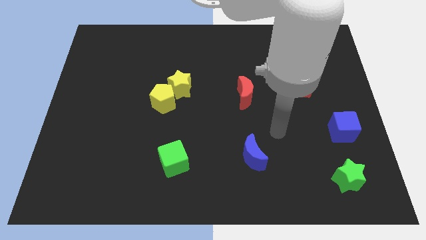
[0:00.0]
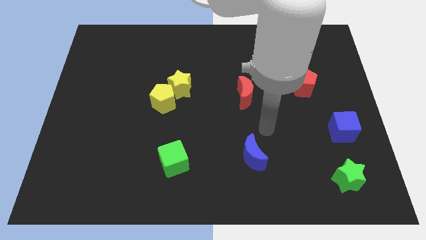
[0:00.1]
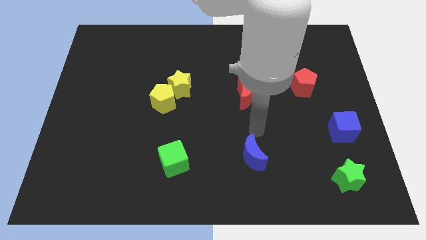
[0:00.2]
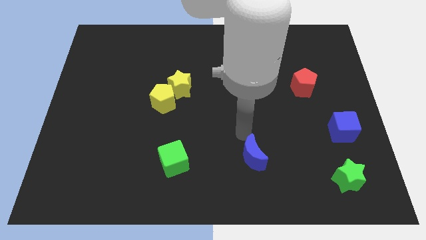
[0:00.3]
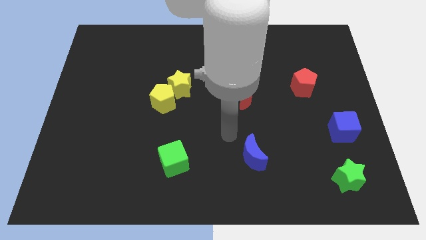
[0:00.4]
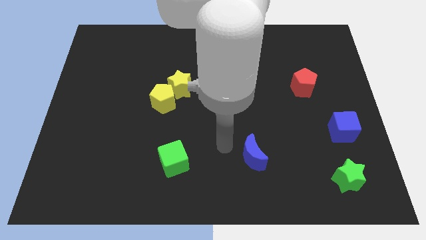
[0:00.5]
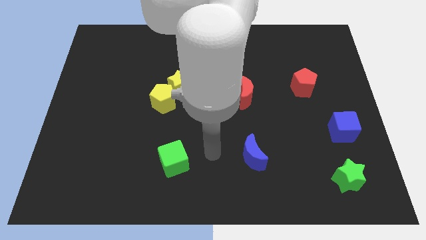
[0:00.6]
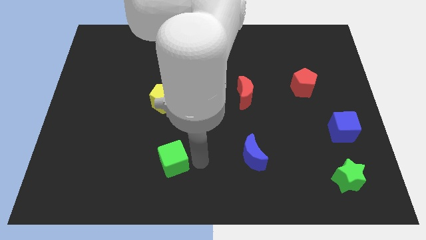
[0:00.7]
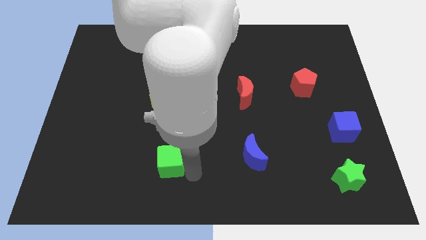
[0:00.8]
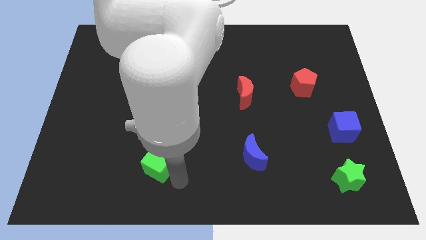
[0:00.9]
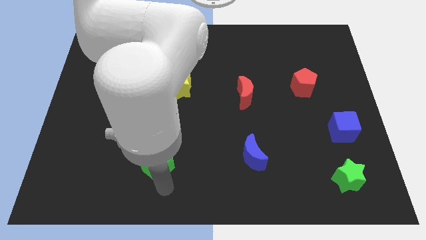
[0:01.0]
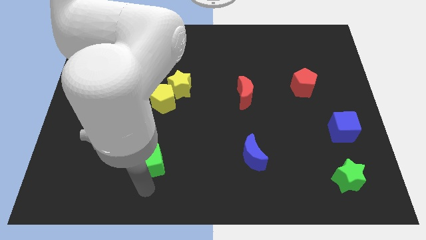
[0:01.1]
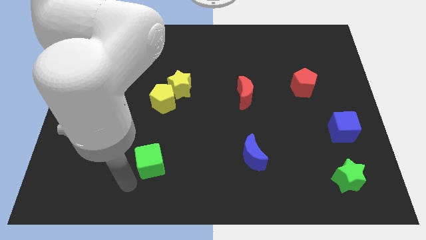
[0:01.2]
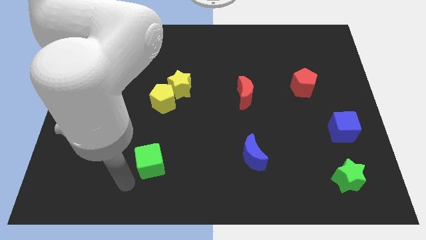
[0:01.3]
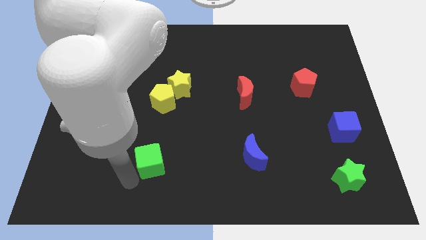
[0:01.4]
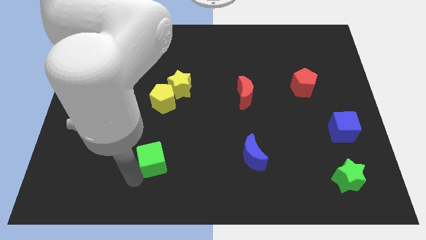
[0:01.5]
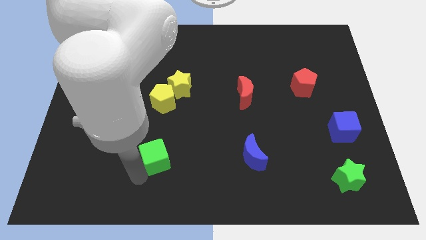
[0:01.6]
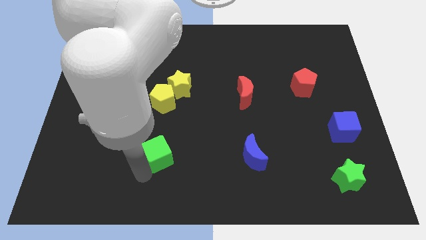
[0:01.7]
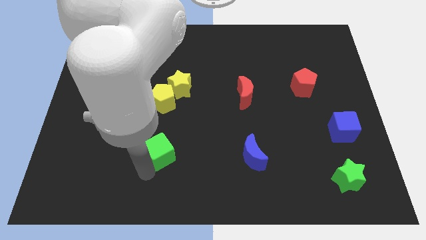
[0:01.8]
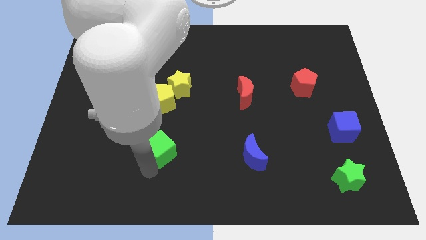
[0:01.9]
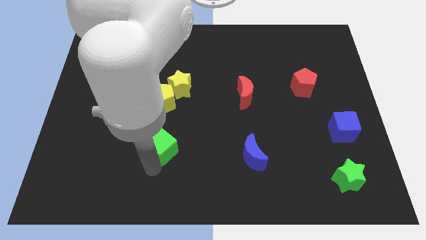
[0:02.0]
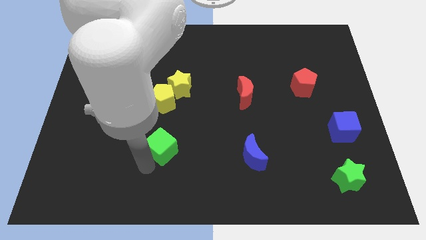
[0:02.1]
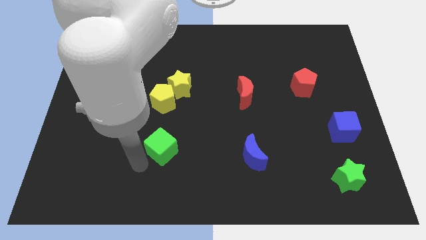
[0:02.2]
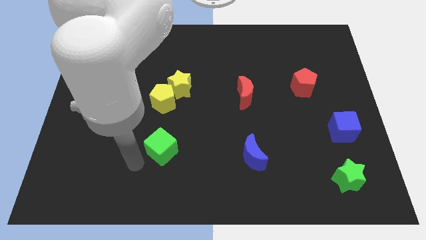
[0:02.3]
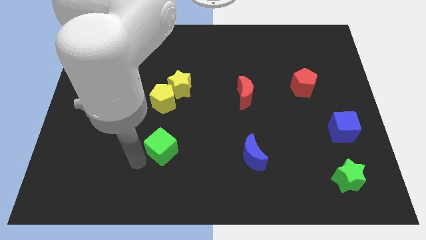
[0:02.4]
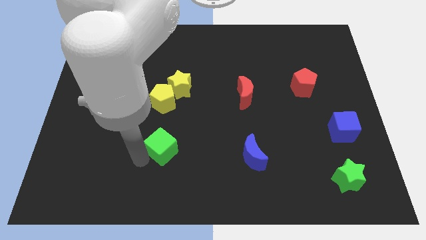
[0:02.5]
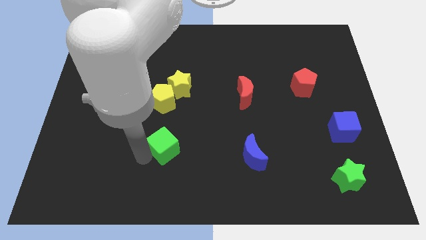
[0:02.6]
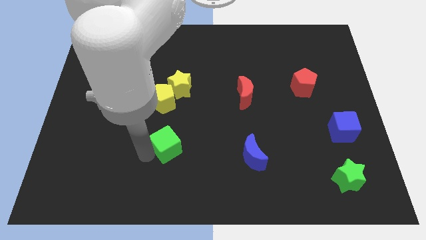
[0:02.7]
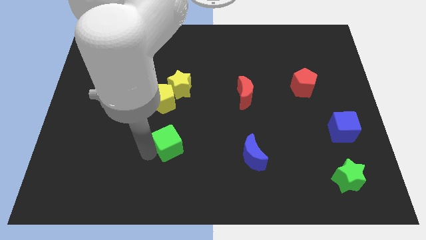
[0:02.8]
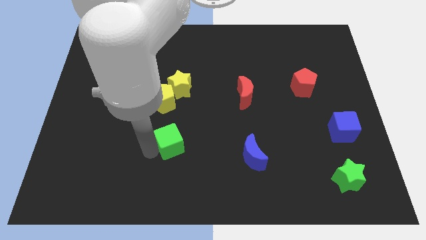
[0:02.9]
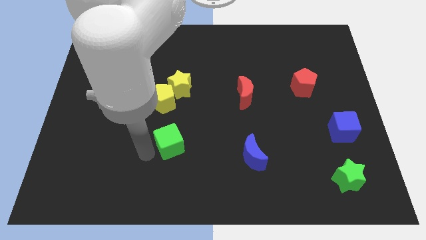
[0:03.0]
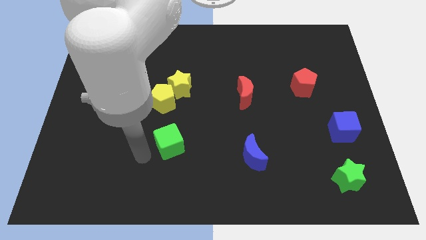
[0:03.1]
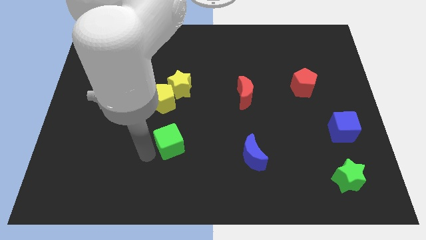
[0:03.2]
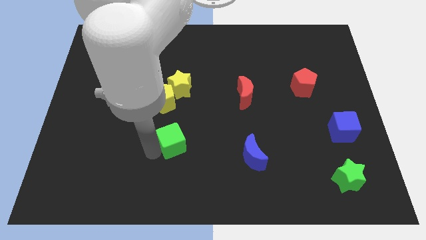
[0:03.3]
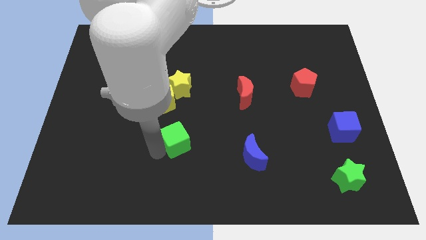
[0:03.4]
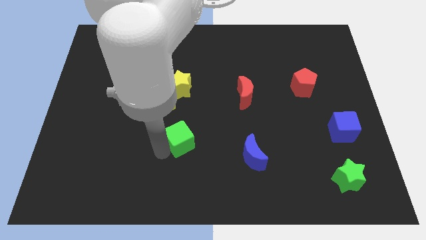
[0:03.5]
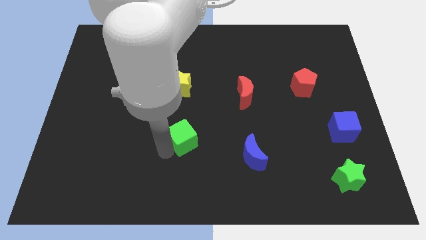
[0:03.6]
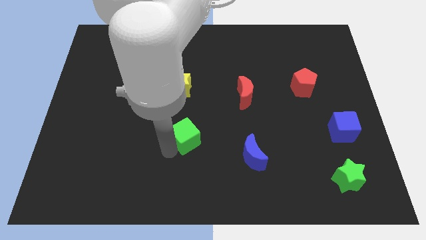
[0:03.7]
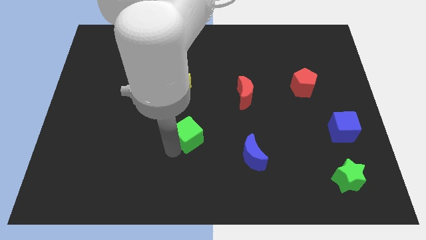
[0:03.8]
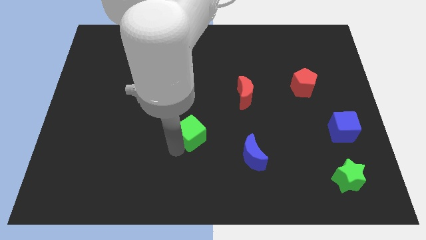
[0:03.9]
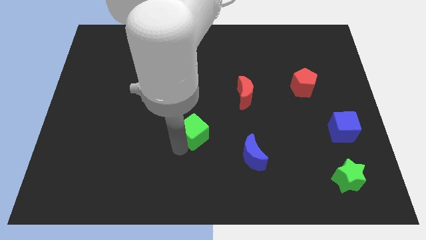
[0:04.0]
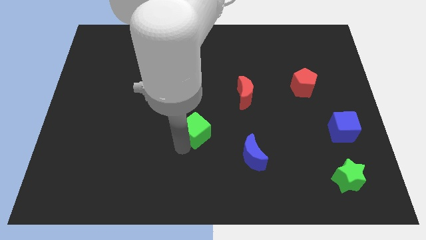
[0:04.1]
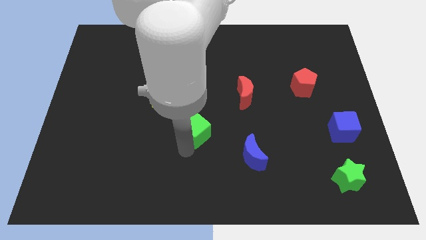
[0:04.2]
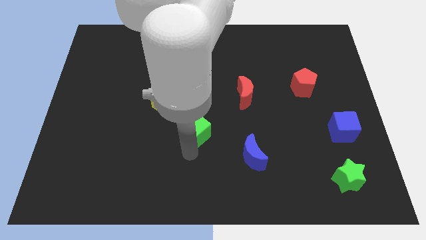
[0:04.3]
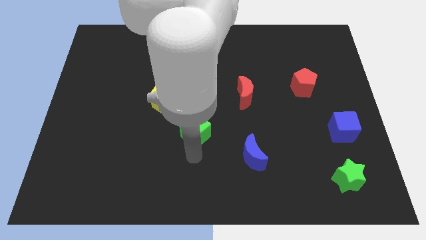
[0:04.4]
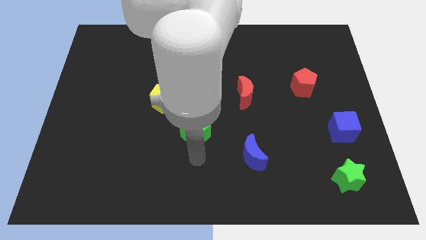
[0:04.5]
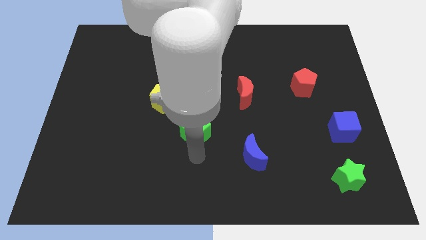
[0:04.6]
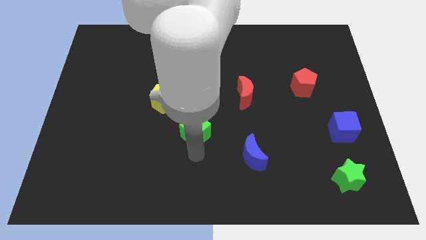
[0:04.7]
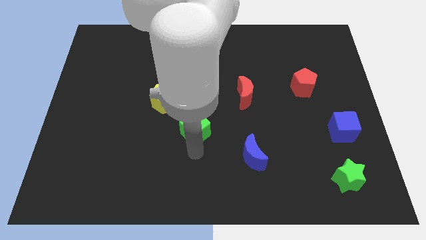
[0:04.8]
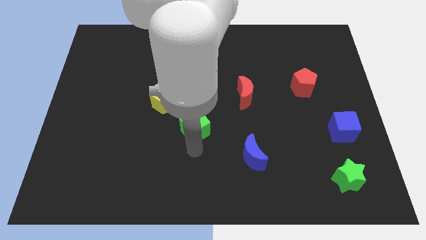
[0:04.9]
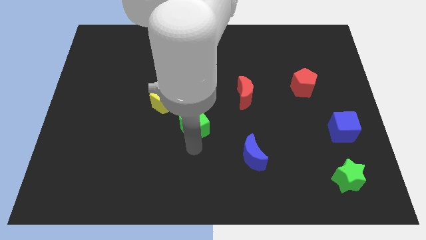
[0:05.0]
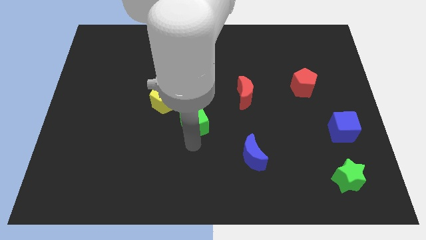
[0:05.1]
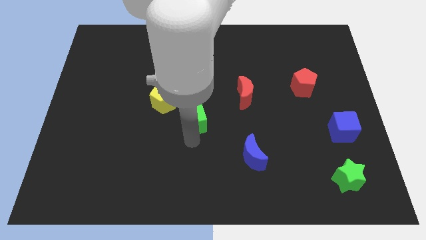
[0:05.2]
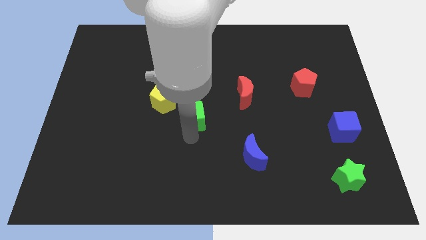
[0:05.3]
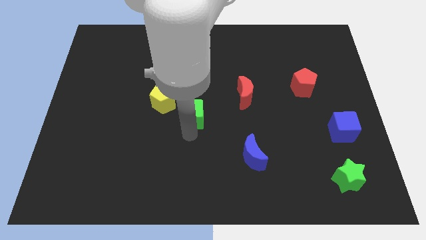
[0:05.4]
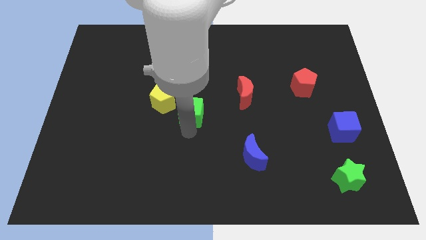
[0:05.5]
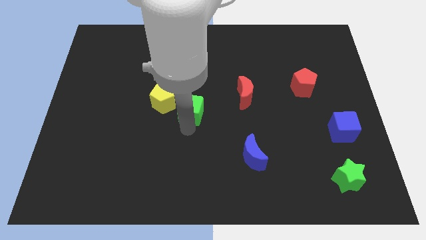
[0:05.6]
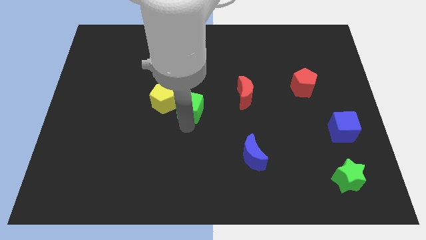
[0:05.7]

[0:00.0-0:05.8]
push the green cube just left of the red moon

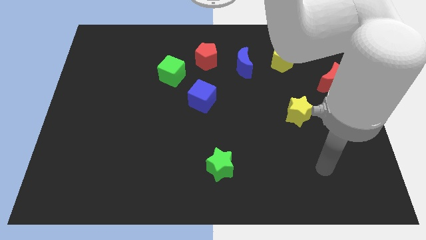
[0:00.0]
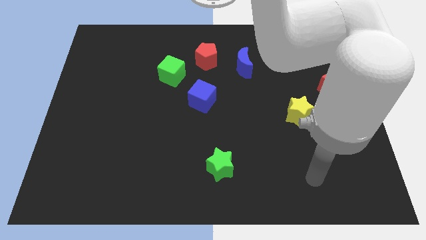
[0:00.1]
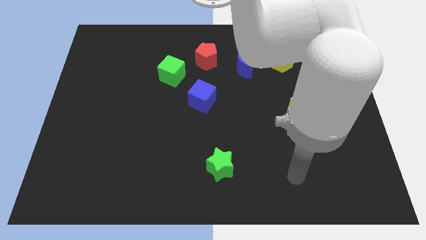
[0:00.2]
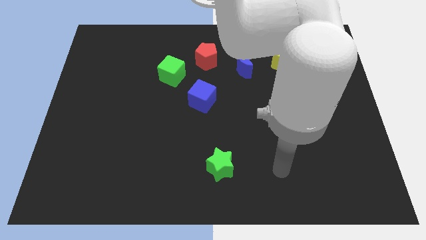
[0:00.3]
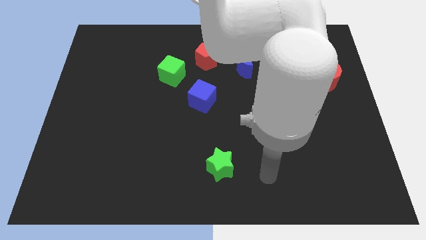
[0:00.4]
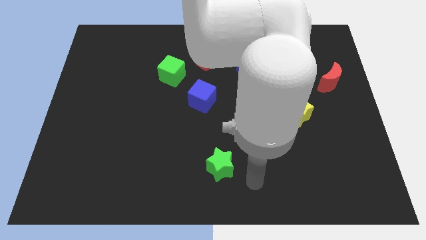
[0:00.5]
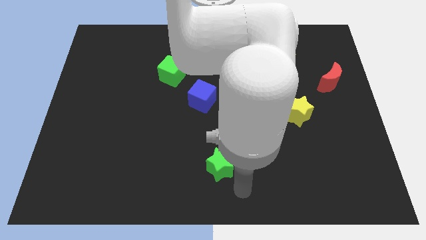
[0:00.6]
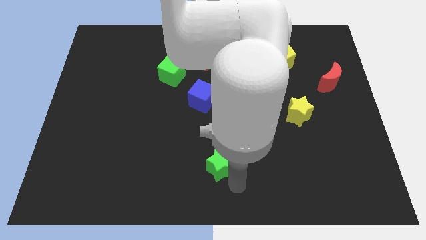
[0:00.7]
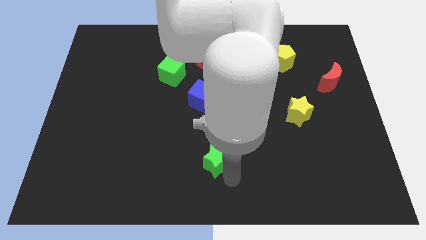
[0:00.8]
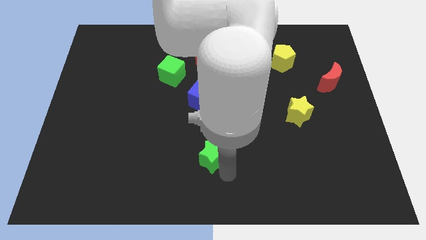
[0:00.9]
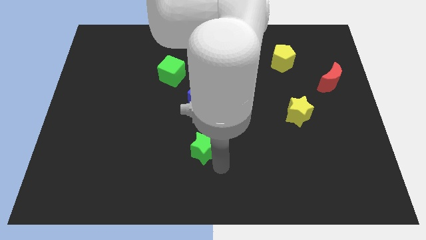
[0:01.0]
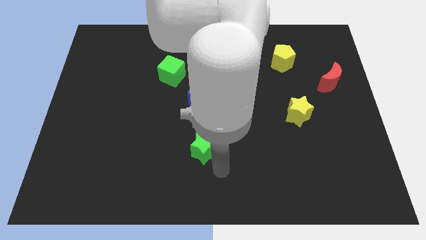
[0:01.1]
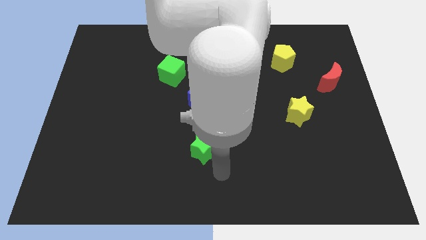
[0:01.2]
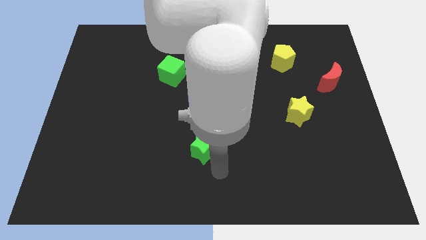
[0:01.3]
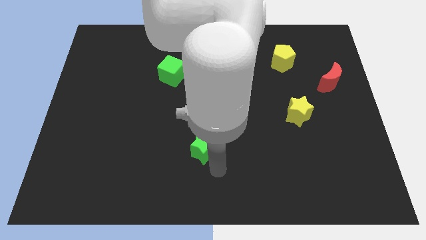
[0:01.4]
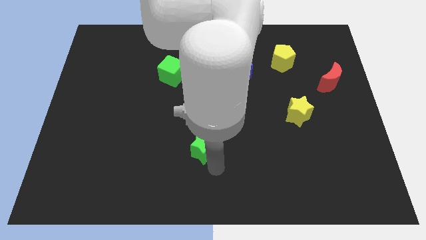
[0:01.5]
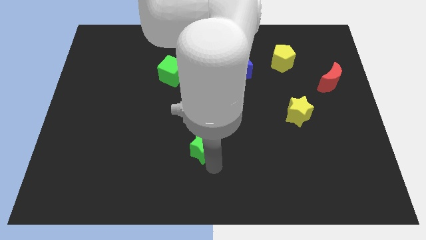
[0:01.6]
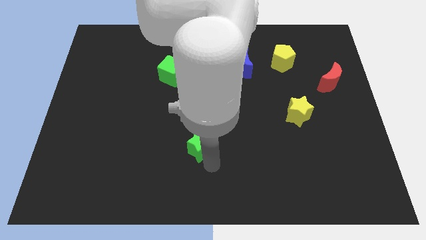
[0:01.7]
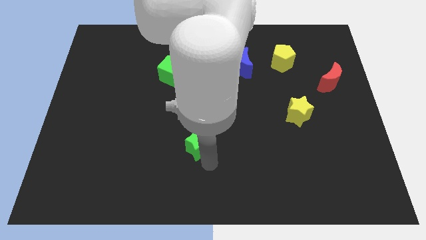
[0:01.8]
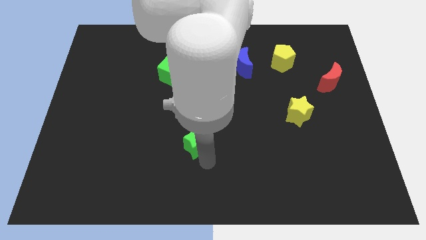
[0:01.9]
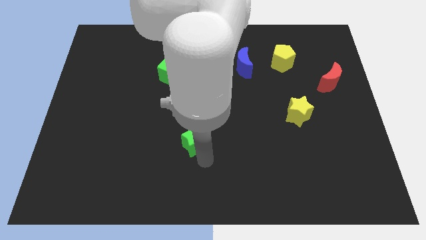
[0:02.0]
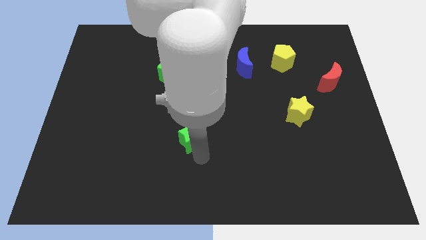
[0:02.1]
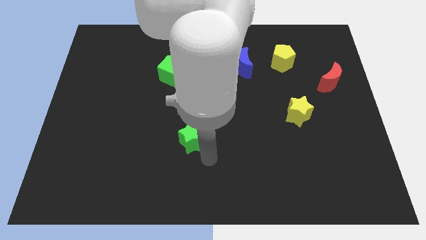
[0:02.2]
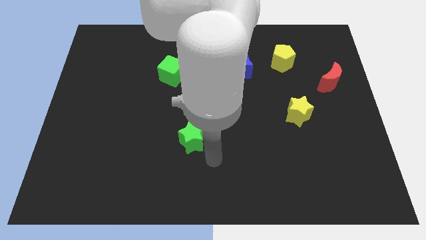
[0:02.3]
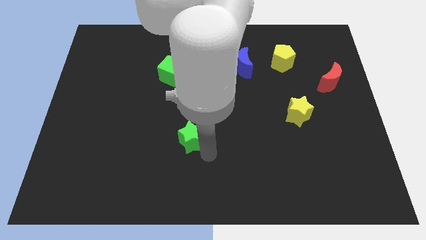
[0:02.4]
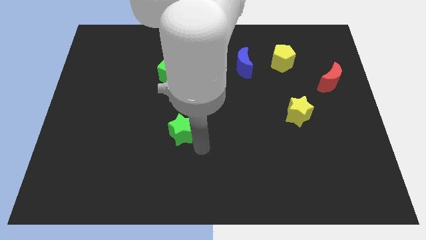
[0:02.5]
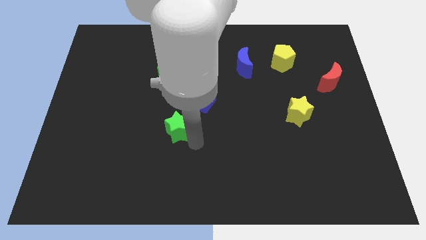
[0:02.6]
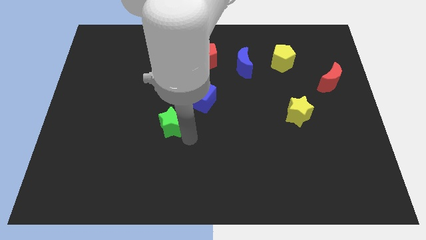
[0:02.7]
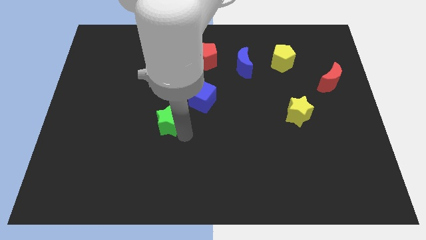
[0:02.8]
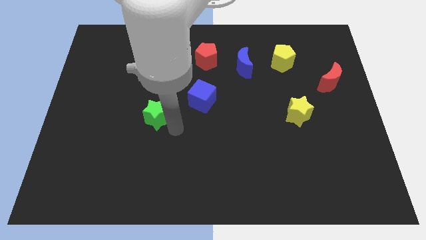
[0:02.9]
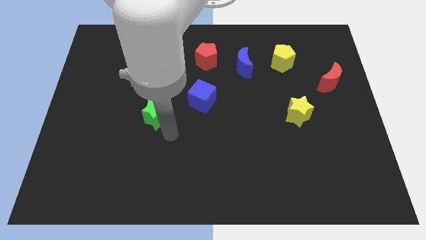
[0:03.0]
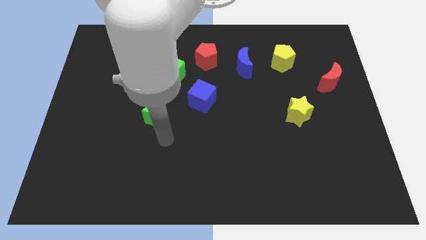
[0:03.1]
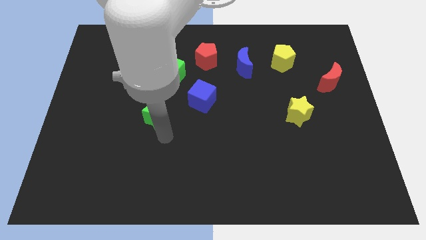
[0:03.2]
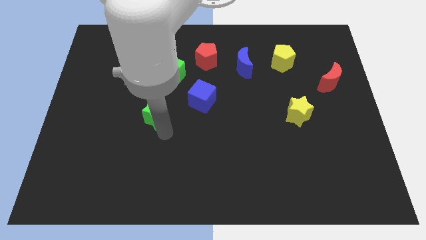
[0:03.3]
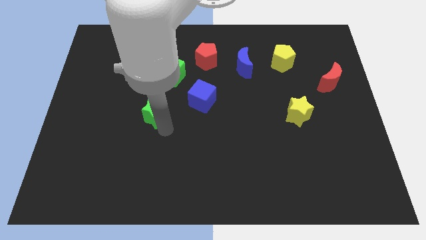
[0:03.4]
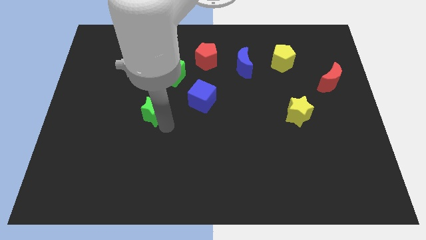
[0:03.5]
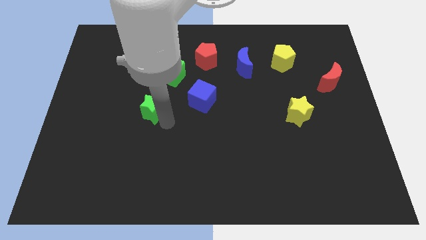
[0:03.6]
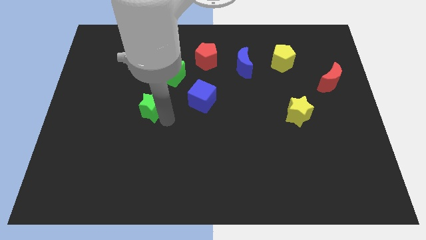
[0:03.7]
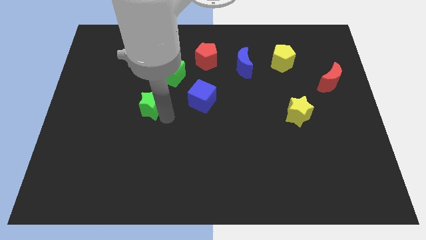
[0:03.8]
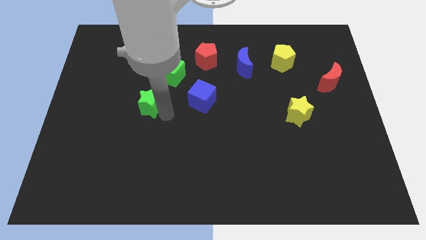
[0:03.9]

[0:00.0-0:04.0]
move the green star to the bottom left of the green cube
